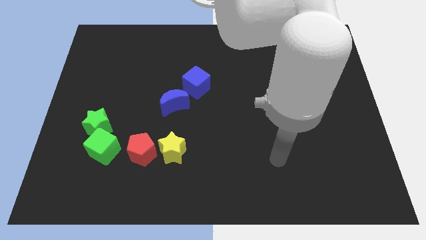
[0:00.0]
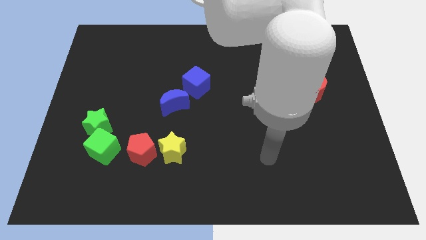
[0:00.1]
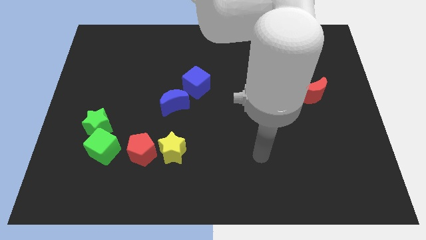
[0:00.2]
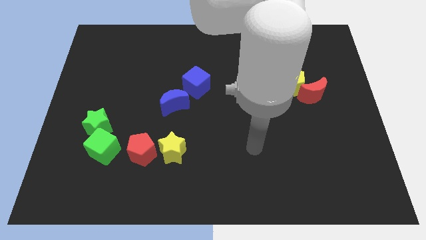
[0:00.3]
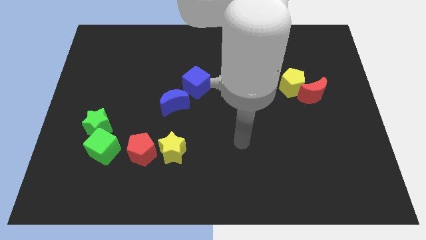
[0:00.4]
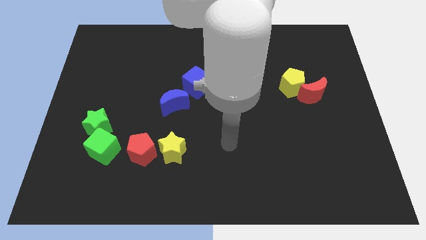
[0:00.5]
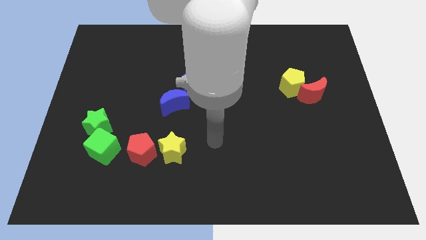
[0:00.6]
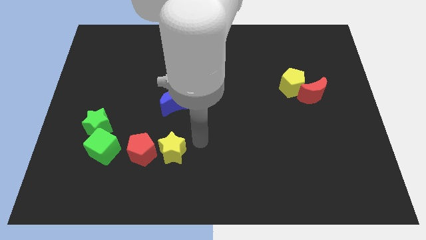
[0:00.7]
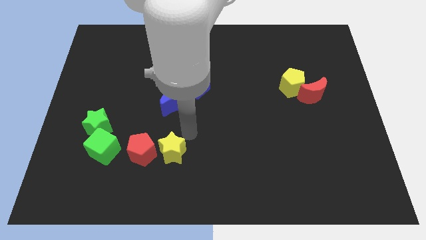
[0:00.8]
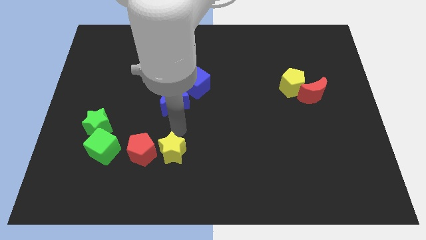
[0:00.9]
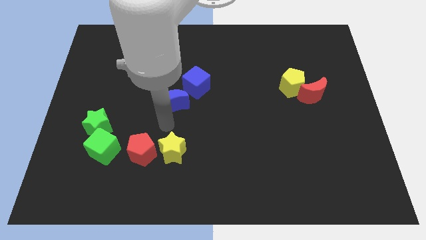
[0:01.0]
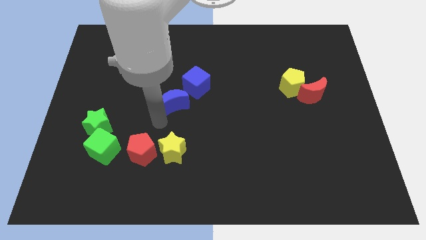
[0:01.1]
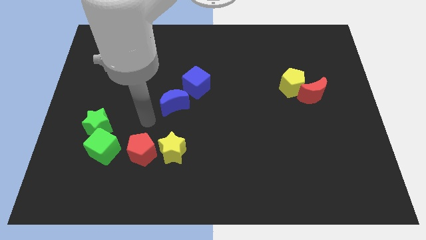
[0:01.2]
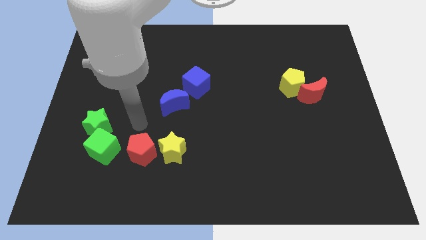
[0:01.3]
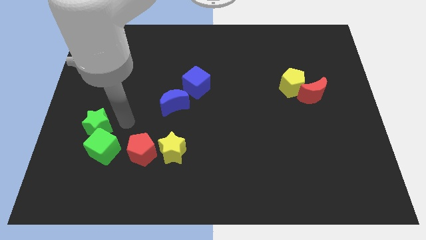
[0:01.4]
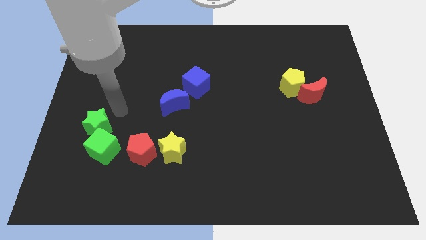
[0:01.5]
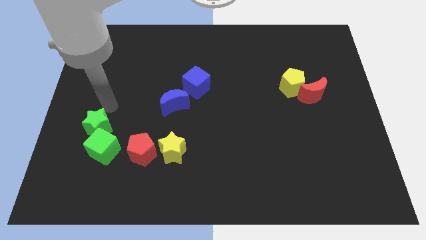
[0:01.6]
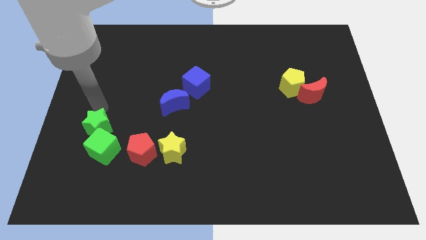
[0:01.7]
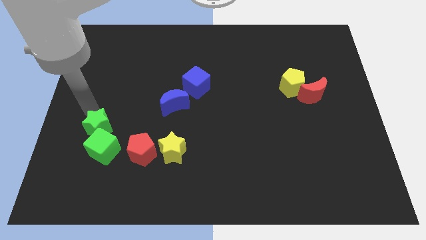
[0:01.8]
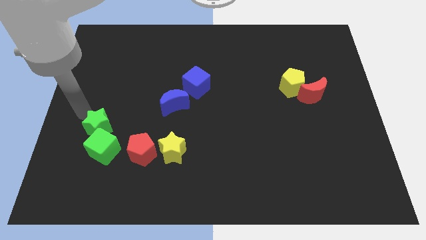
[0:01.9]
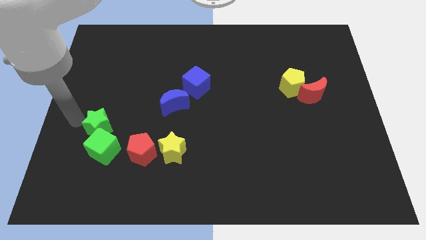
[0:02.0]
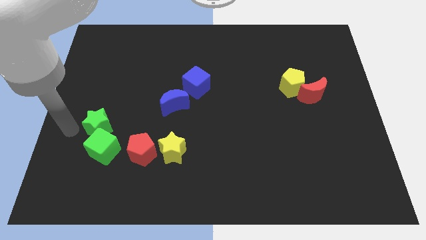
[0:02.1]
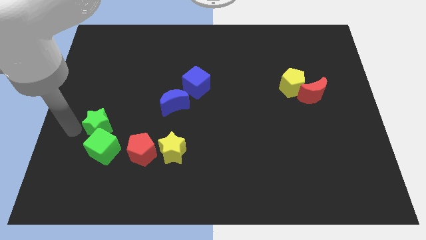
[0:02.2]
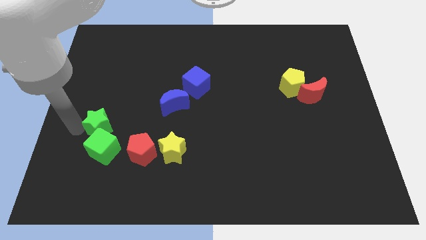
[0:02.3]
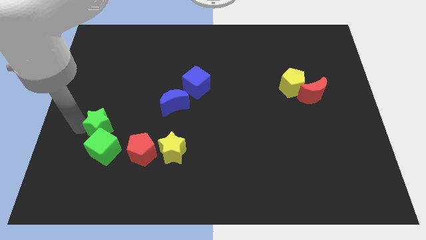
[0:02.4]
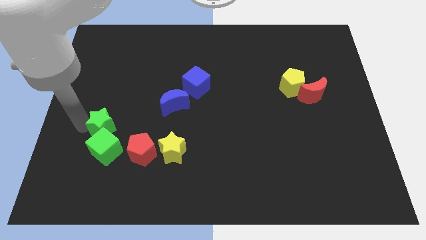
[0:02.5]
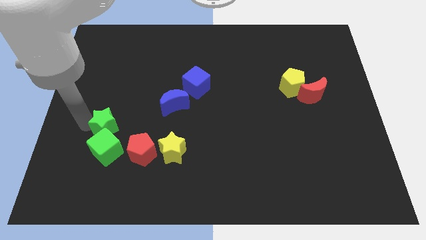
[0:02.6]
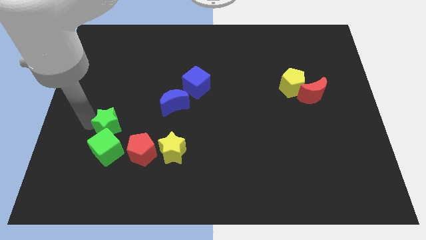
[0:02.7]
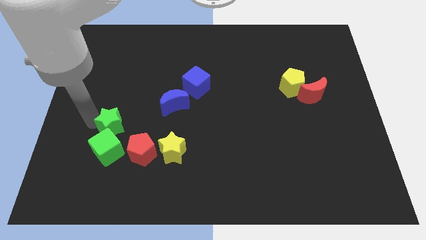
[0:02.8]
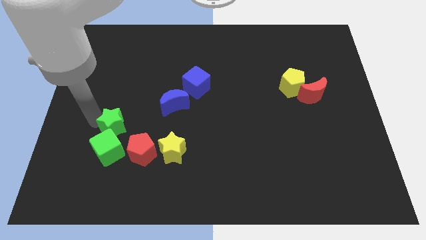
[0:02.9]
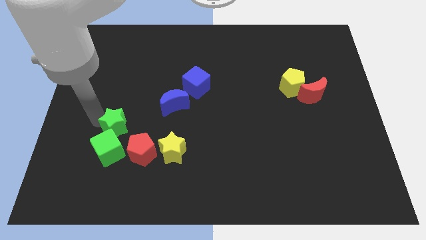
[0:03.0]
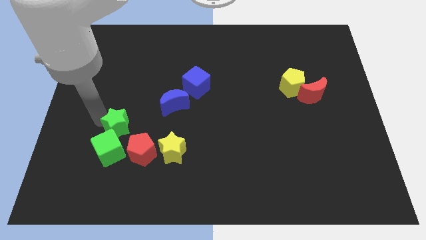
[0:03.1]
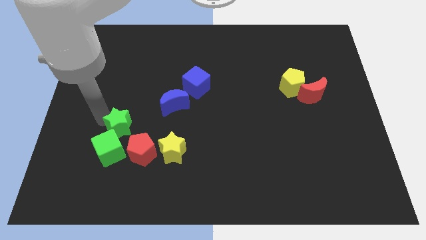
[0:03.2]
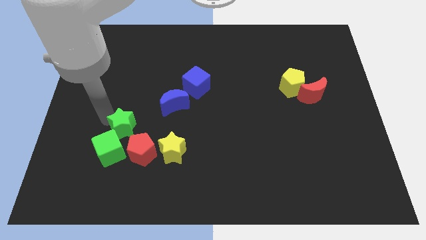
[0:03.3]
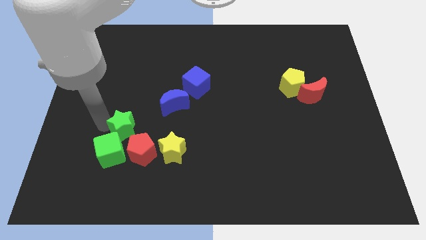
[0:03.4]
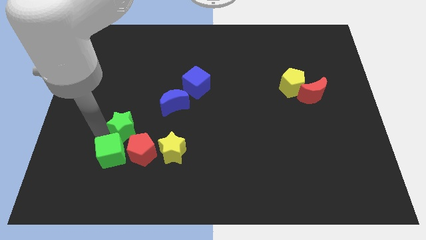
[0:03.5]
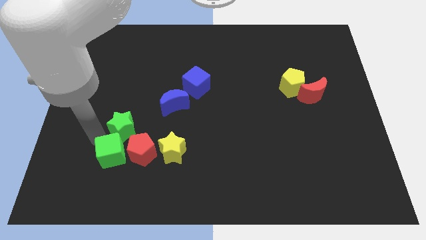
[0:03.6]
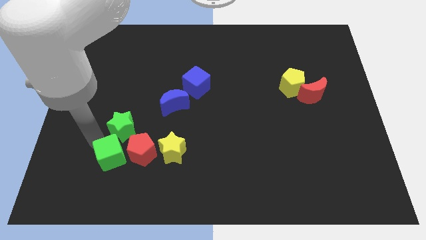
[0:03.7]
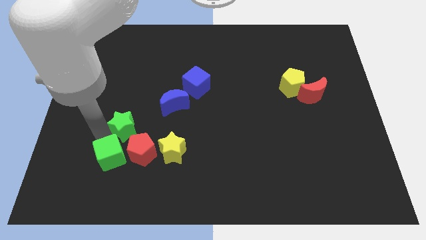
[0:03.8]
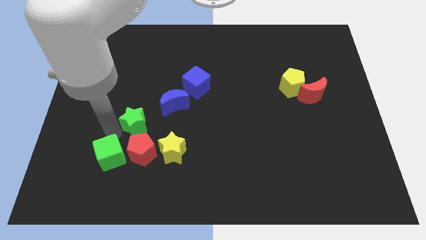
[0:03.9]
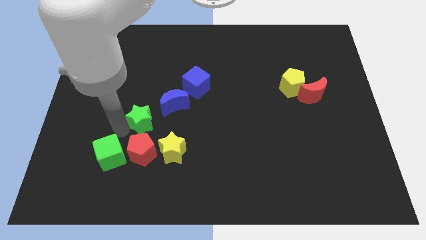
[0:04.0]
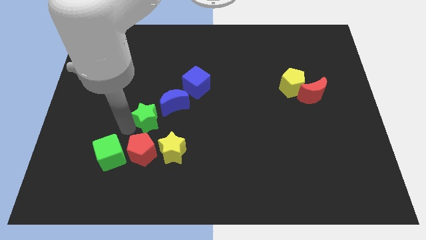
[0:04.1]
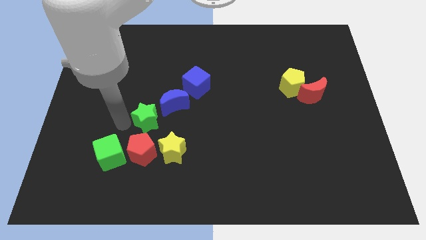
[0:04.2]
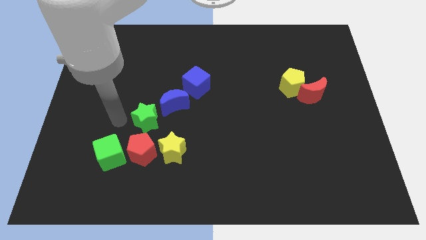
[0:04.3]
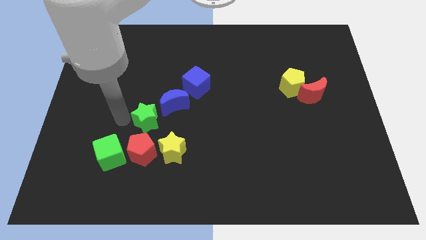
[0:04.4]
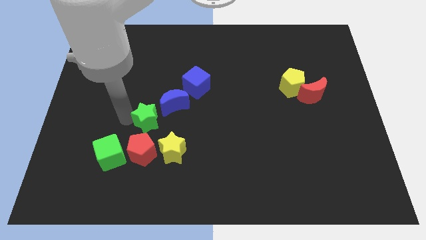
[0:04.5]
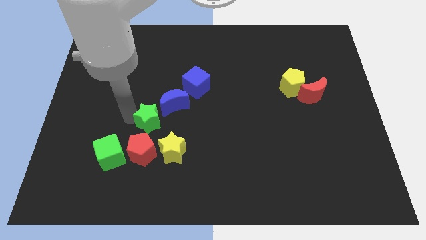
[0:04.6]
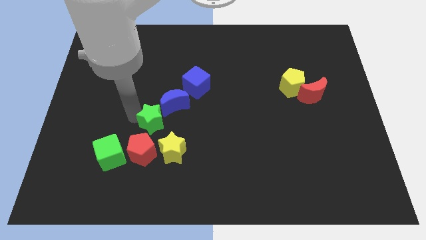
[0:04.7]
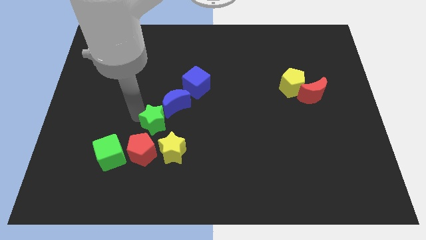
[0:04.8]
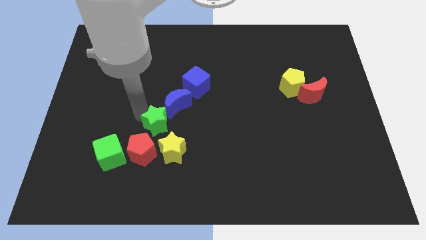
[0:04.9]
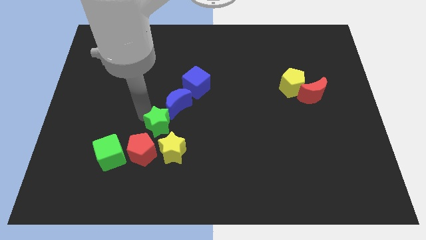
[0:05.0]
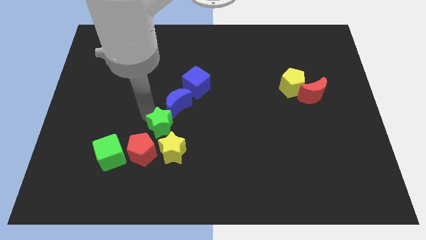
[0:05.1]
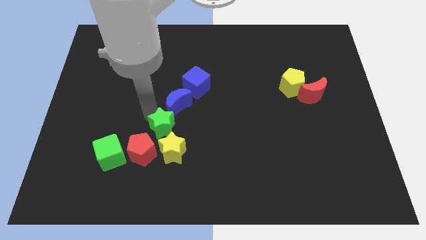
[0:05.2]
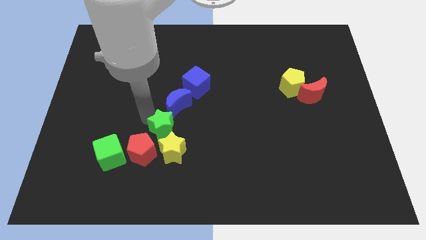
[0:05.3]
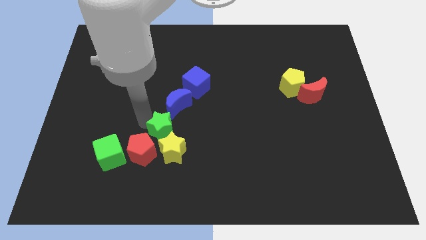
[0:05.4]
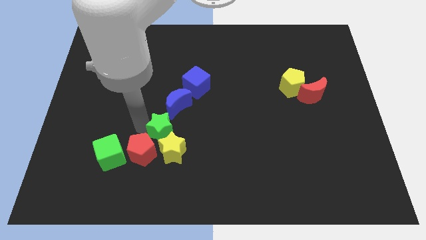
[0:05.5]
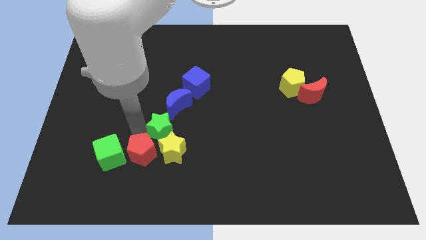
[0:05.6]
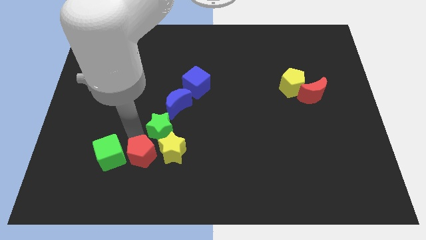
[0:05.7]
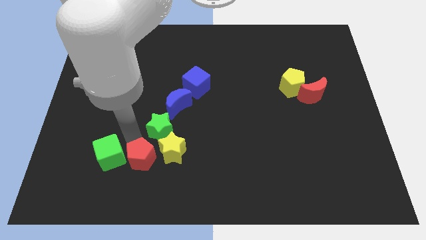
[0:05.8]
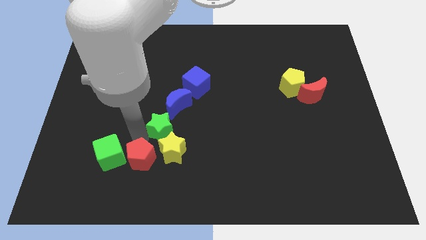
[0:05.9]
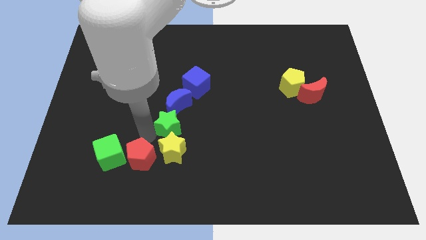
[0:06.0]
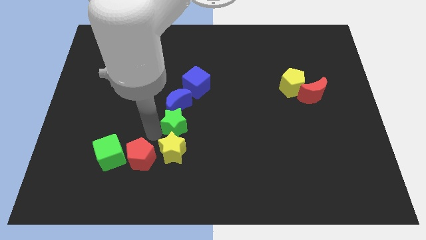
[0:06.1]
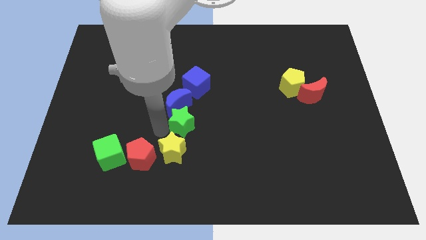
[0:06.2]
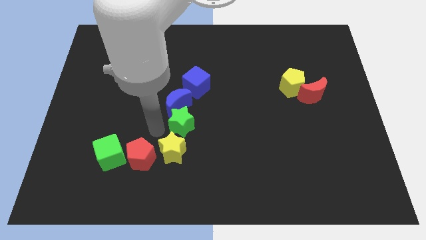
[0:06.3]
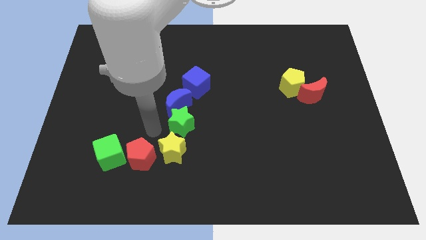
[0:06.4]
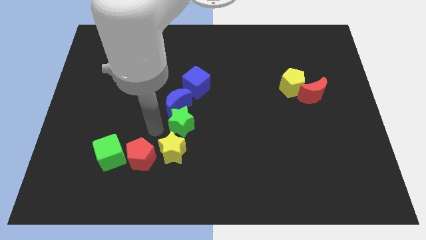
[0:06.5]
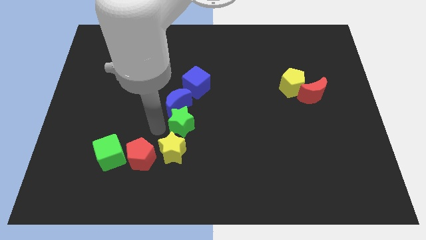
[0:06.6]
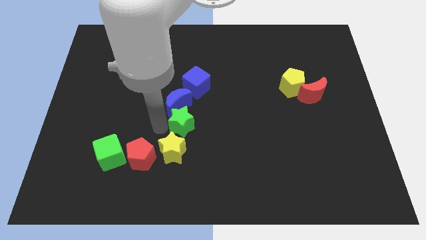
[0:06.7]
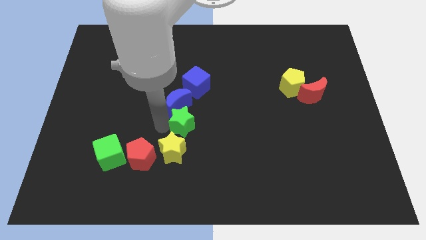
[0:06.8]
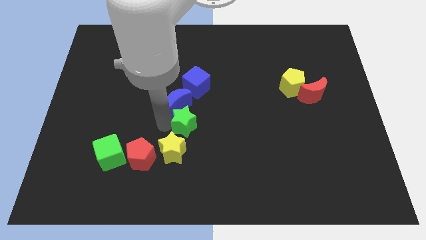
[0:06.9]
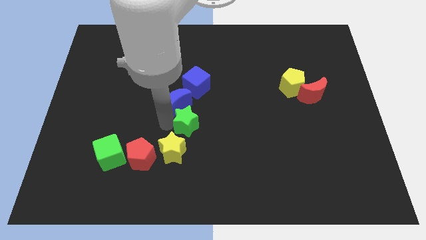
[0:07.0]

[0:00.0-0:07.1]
push the green star to the right

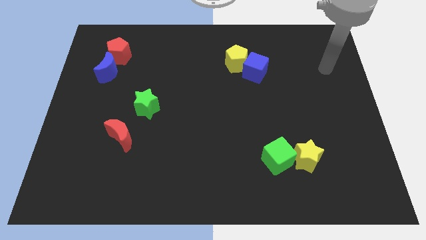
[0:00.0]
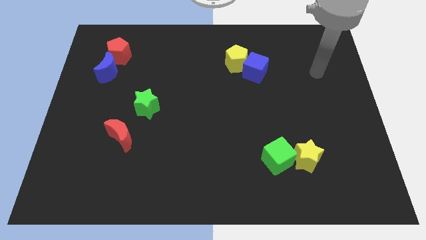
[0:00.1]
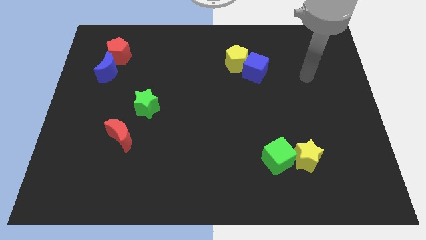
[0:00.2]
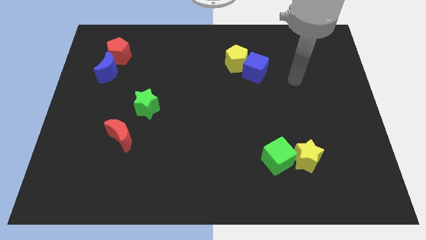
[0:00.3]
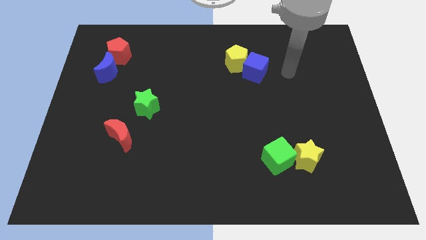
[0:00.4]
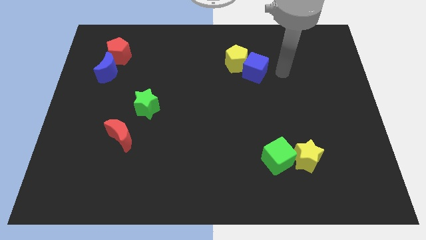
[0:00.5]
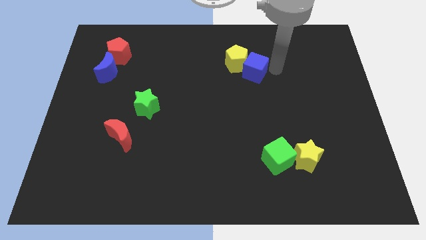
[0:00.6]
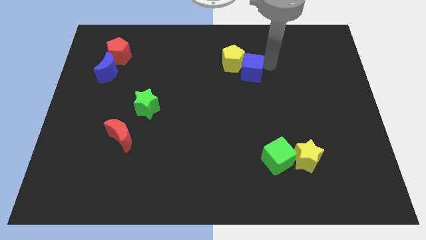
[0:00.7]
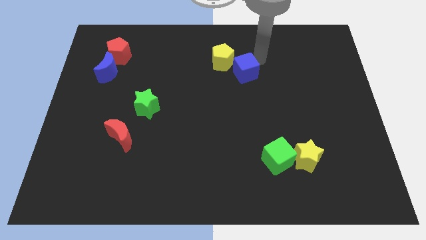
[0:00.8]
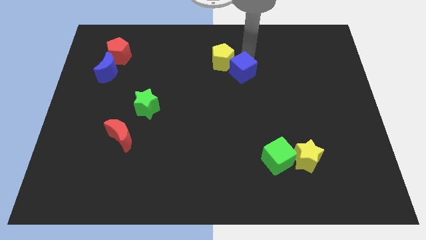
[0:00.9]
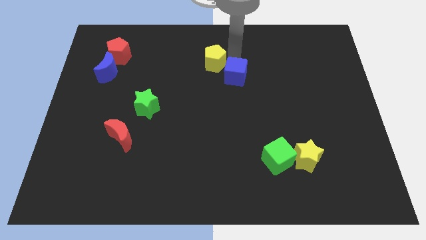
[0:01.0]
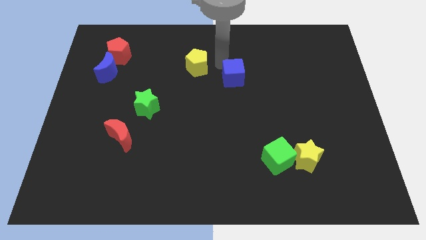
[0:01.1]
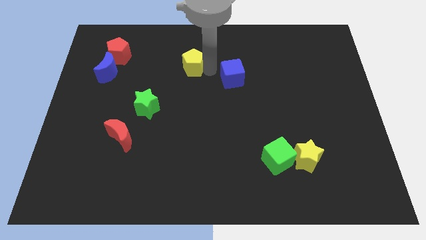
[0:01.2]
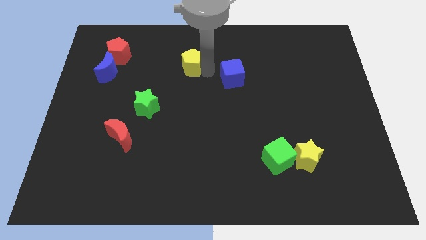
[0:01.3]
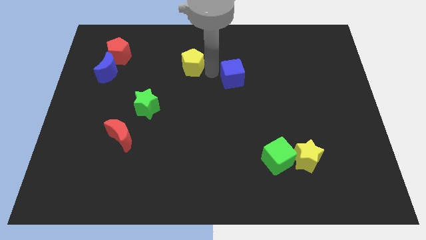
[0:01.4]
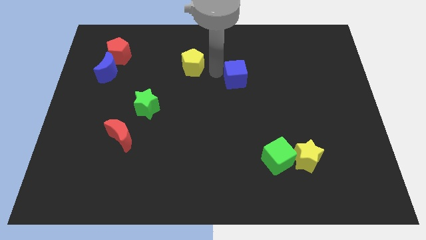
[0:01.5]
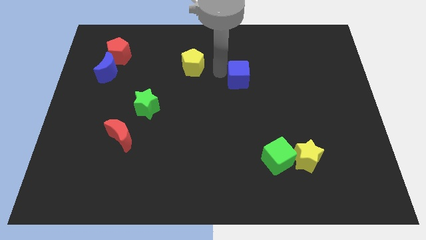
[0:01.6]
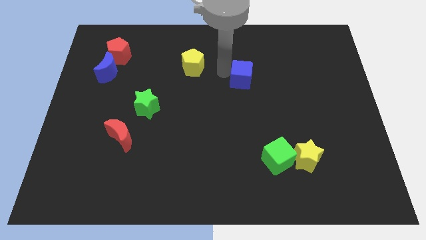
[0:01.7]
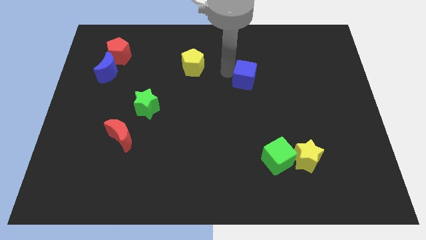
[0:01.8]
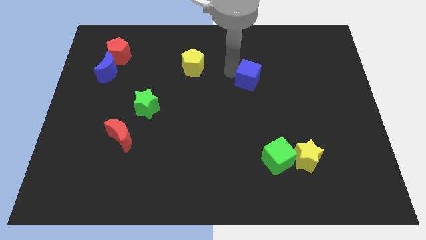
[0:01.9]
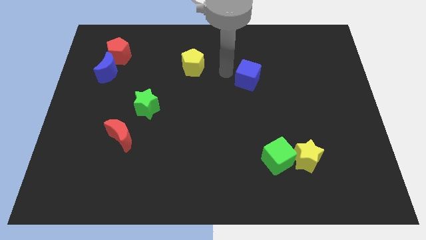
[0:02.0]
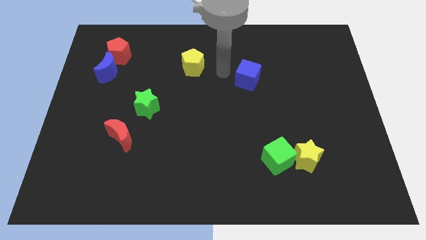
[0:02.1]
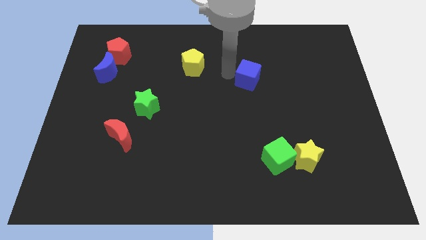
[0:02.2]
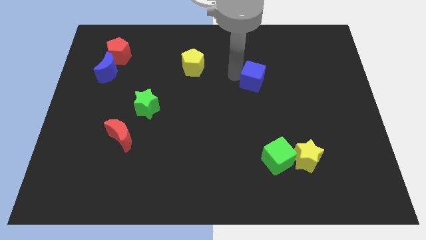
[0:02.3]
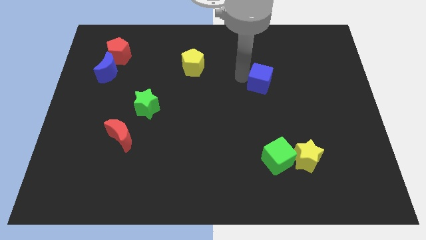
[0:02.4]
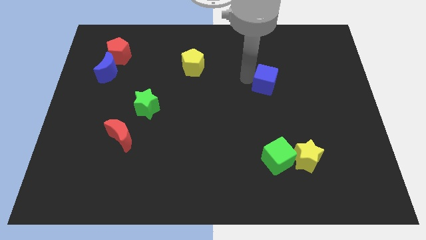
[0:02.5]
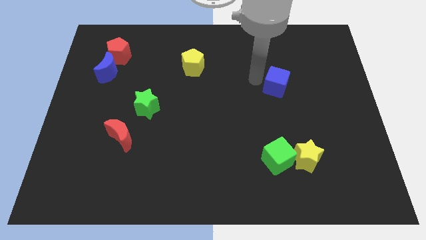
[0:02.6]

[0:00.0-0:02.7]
slightly move the blue cube down and then to the right
